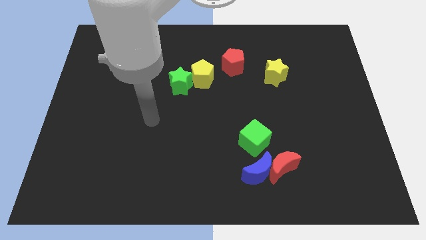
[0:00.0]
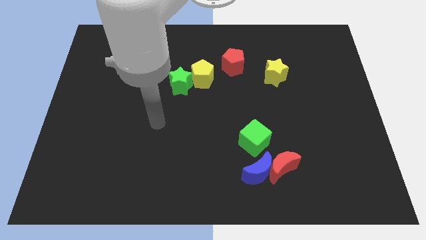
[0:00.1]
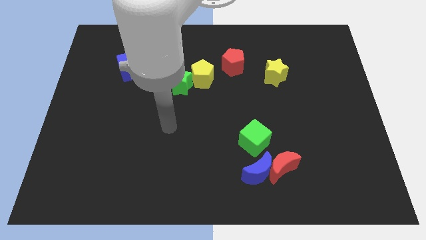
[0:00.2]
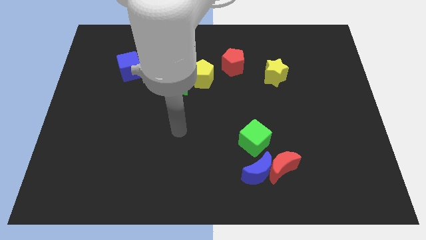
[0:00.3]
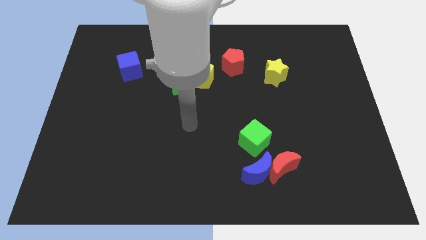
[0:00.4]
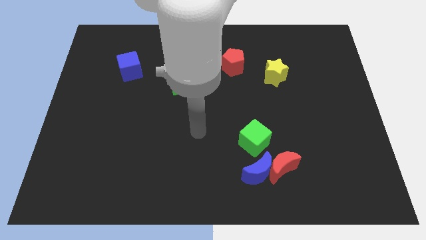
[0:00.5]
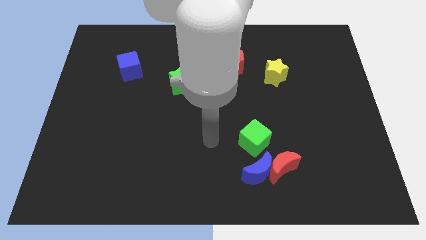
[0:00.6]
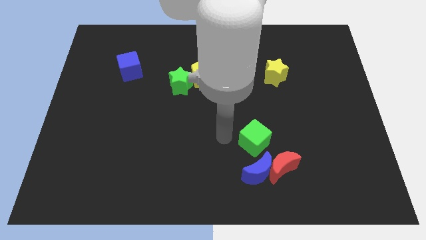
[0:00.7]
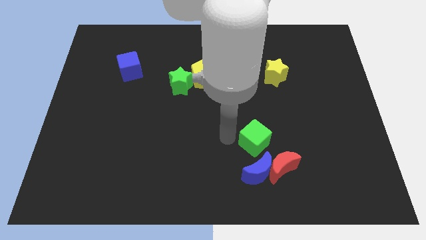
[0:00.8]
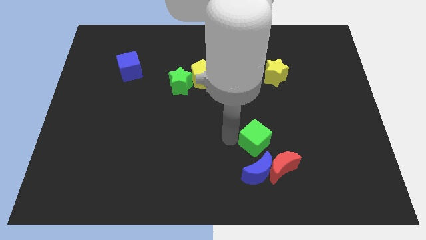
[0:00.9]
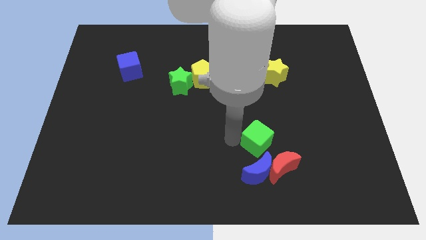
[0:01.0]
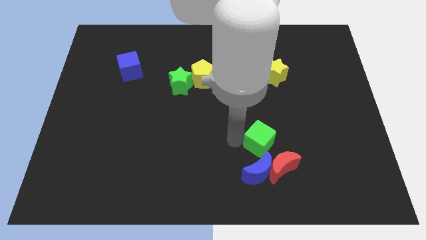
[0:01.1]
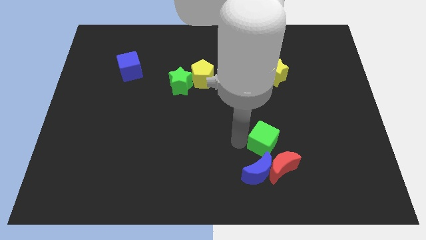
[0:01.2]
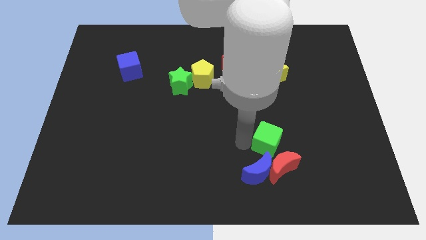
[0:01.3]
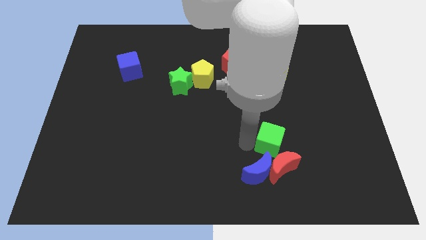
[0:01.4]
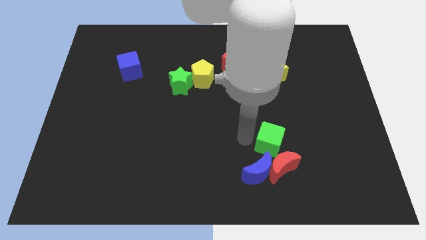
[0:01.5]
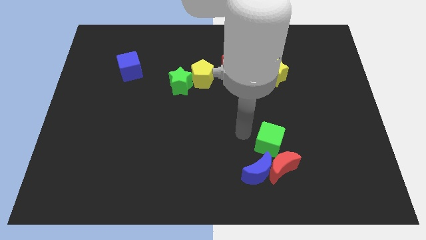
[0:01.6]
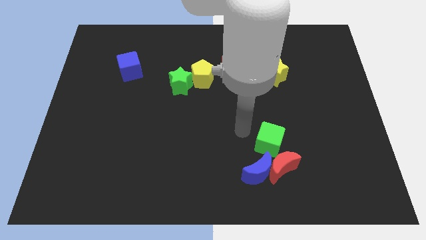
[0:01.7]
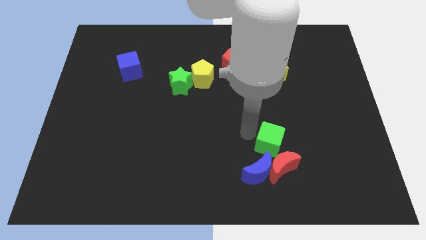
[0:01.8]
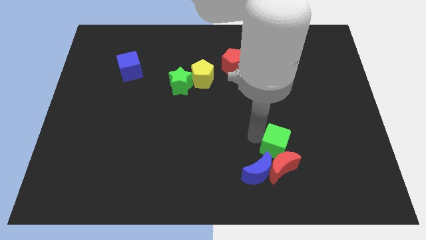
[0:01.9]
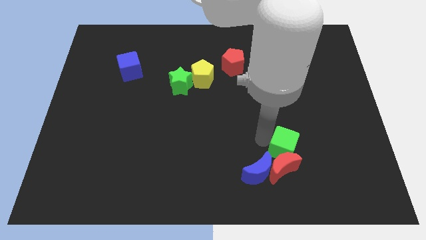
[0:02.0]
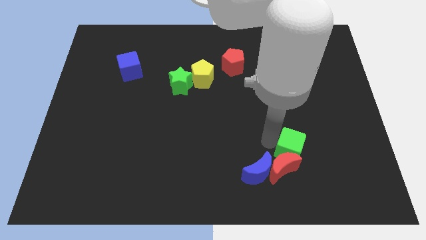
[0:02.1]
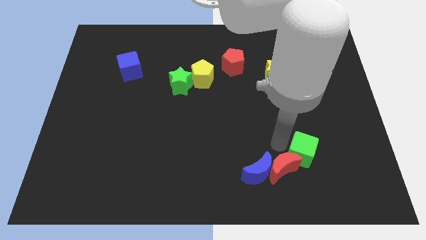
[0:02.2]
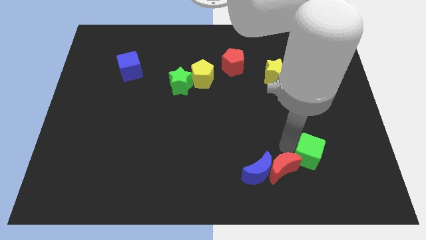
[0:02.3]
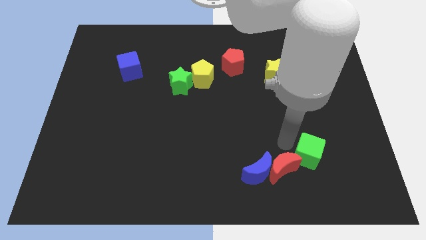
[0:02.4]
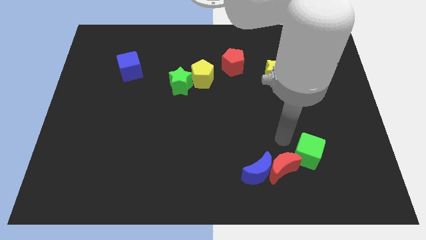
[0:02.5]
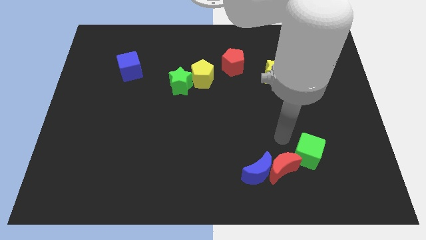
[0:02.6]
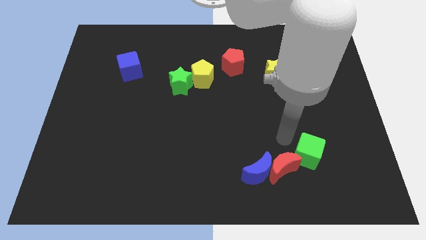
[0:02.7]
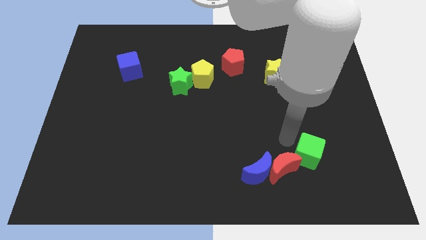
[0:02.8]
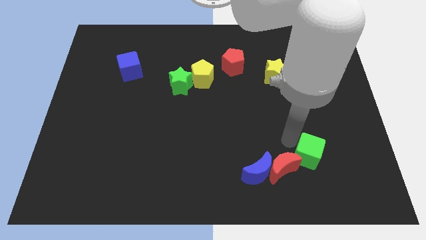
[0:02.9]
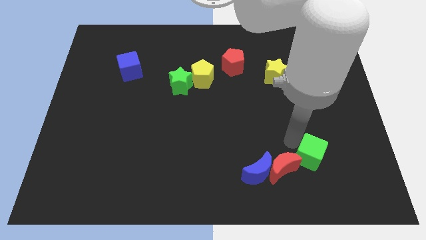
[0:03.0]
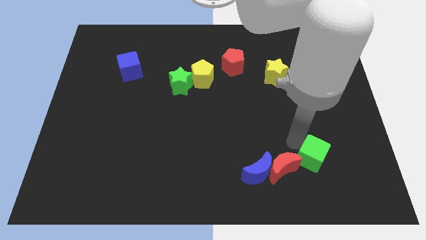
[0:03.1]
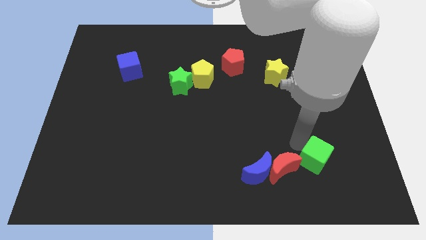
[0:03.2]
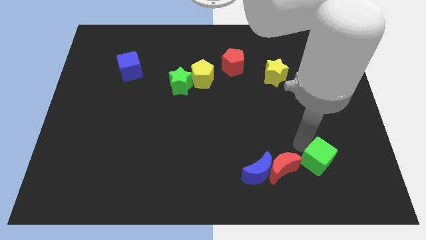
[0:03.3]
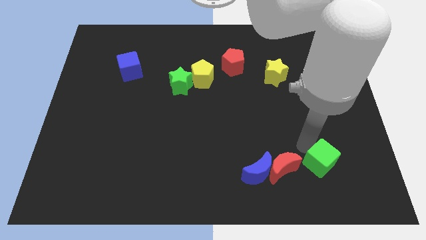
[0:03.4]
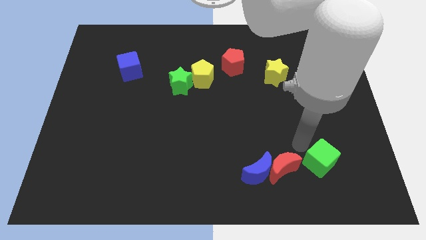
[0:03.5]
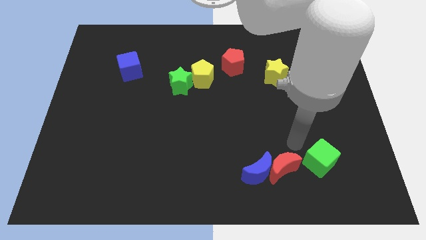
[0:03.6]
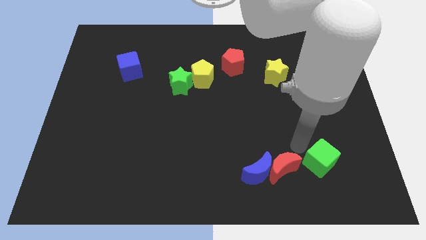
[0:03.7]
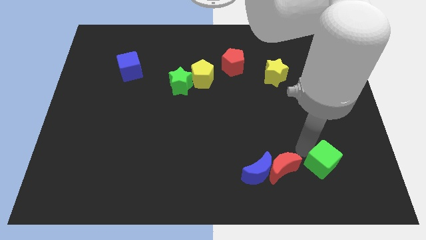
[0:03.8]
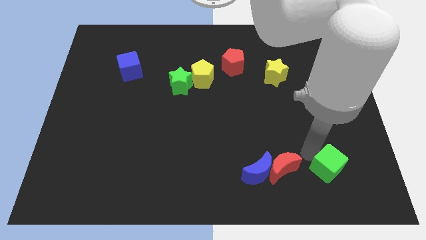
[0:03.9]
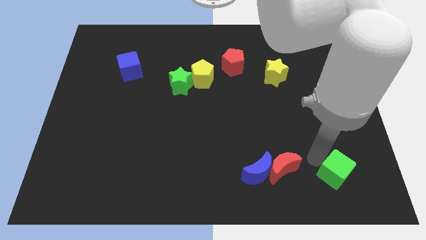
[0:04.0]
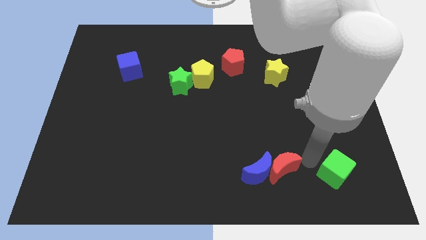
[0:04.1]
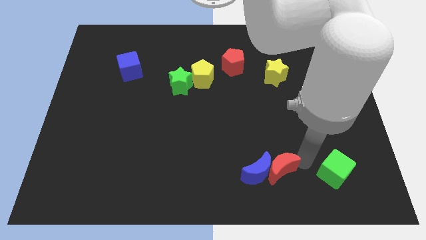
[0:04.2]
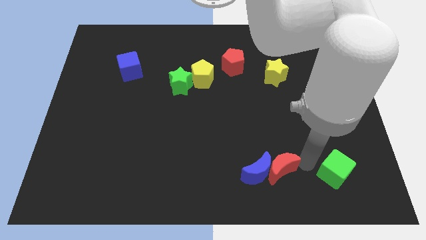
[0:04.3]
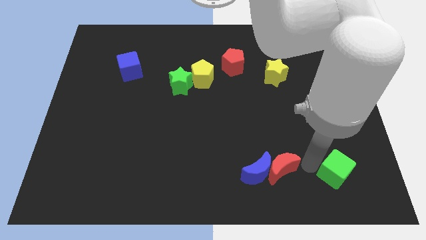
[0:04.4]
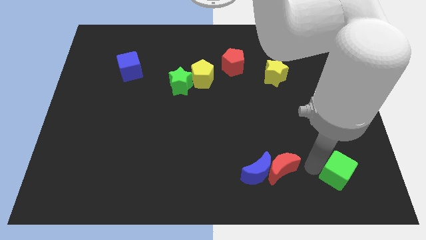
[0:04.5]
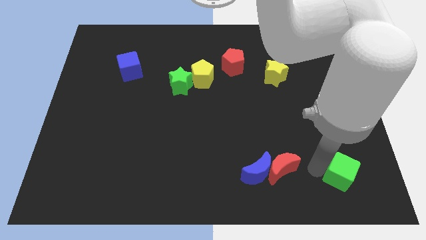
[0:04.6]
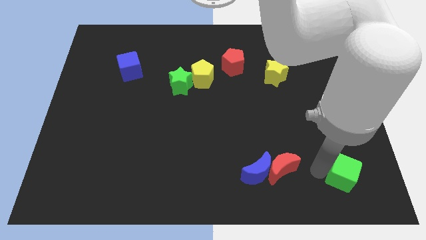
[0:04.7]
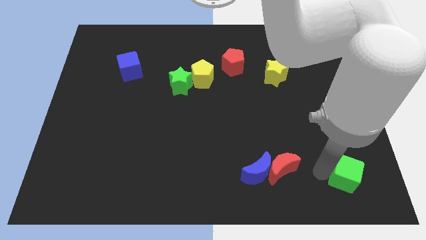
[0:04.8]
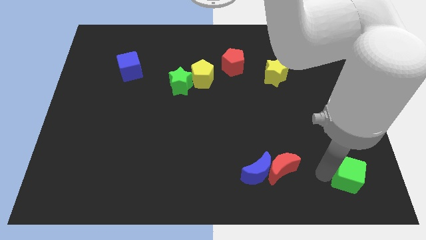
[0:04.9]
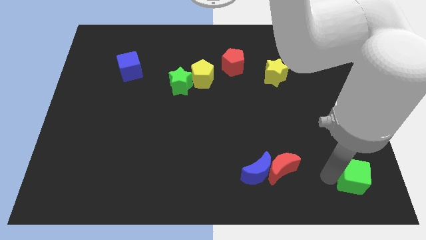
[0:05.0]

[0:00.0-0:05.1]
put the green cube to the lower right corner

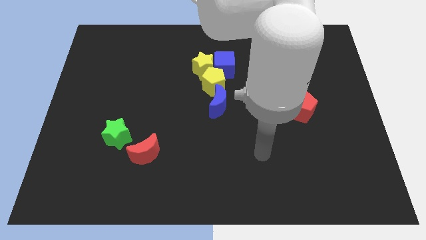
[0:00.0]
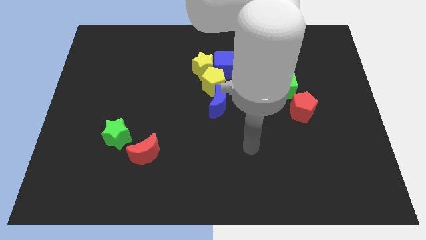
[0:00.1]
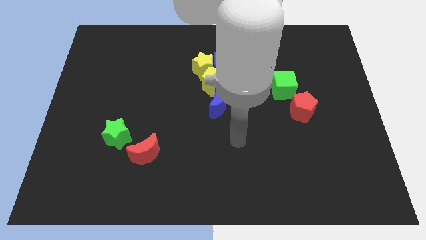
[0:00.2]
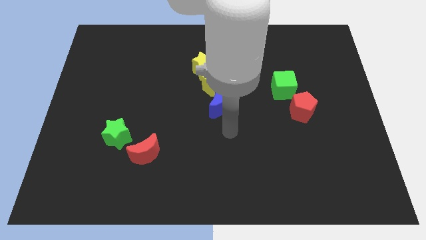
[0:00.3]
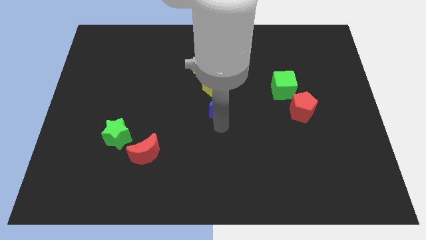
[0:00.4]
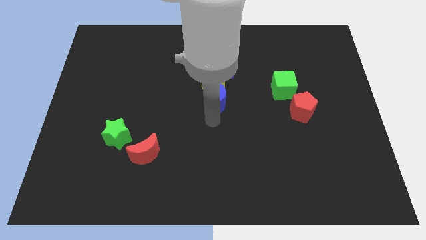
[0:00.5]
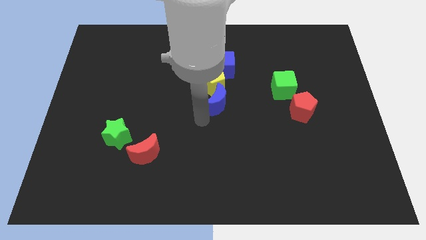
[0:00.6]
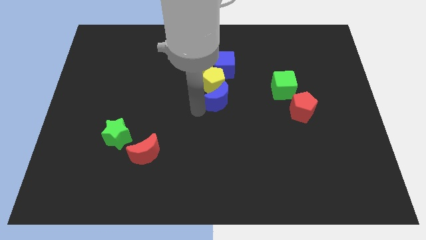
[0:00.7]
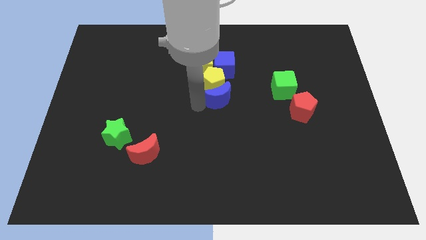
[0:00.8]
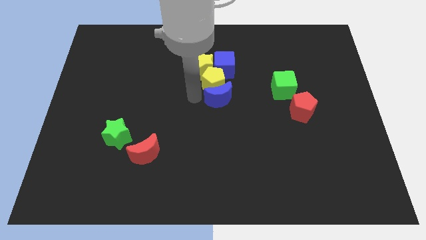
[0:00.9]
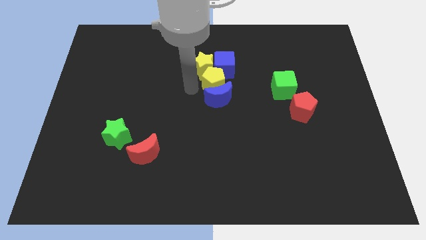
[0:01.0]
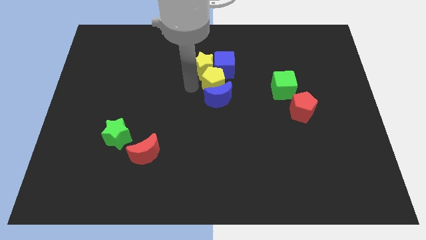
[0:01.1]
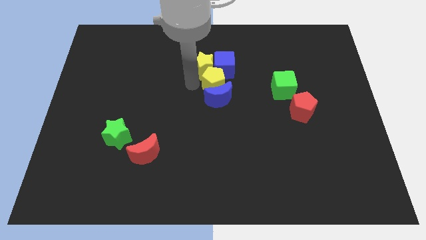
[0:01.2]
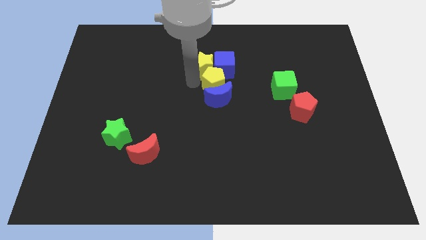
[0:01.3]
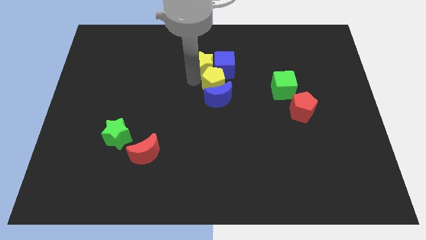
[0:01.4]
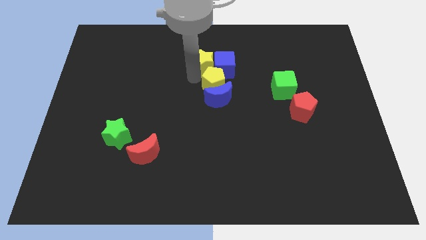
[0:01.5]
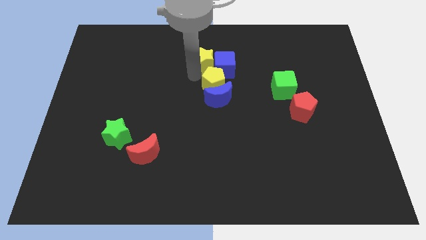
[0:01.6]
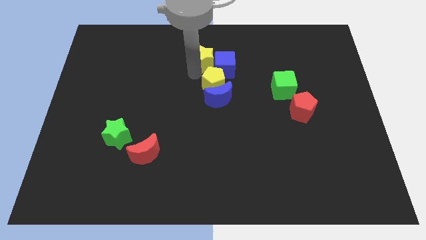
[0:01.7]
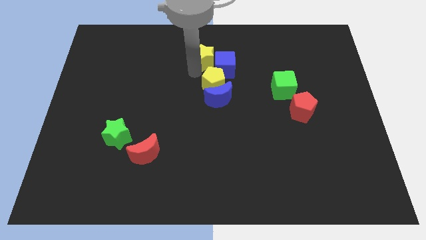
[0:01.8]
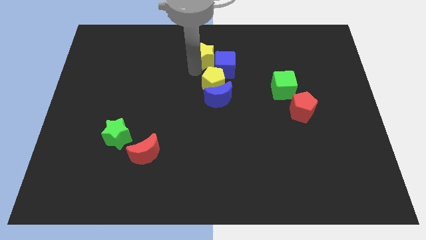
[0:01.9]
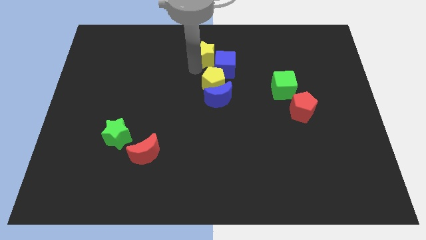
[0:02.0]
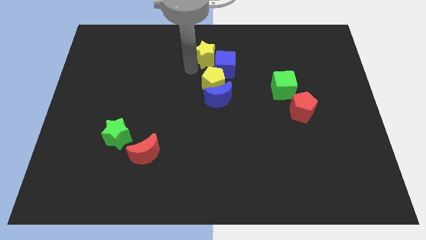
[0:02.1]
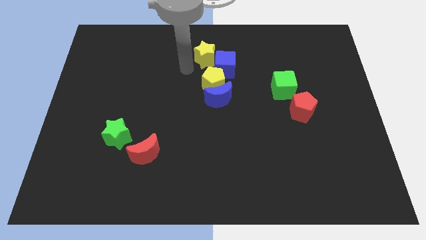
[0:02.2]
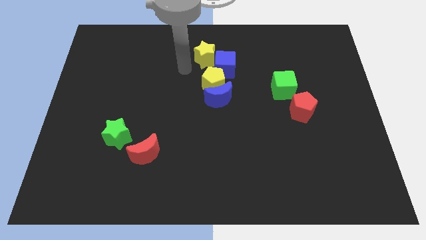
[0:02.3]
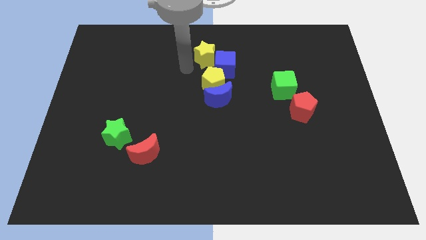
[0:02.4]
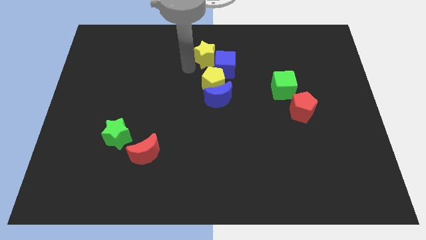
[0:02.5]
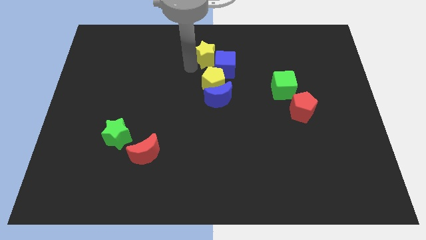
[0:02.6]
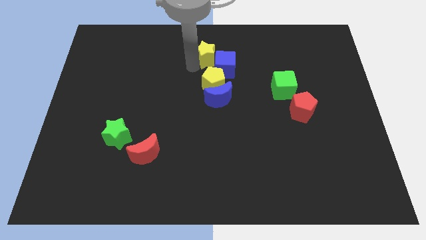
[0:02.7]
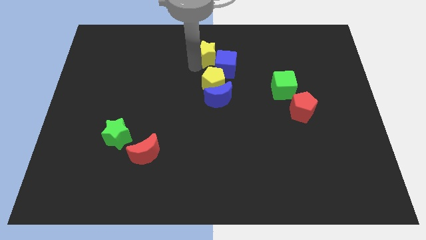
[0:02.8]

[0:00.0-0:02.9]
push the yellow star to the top
